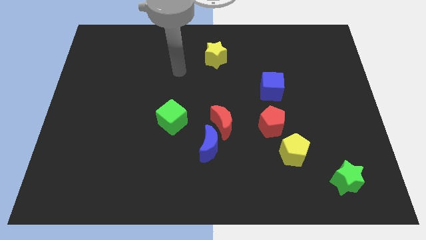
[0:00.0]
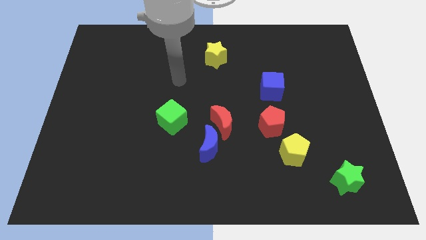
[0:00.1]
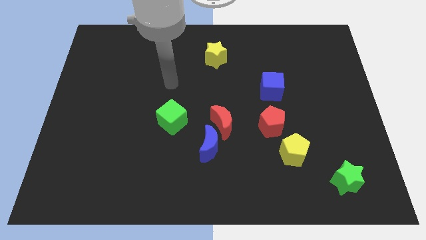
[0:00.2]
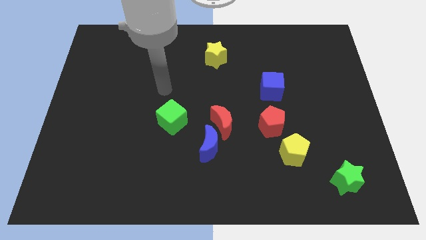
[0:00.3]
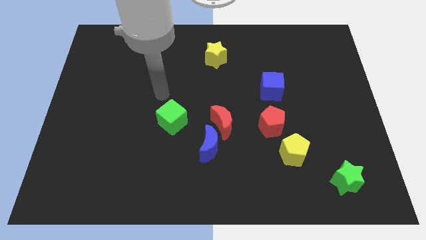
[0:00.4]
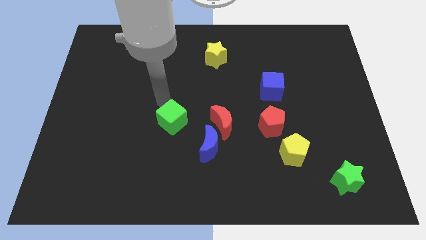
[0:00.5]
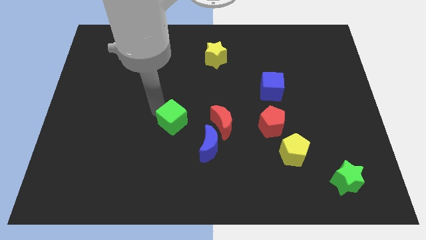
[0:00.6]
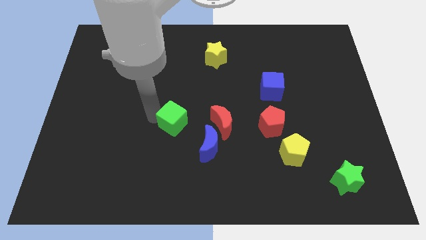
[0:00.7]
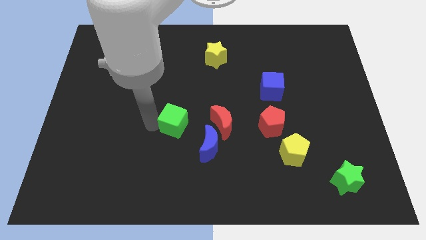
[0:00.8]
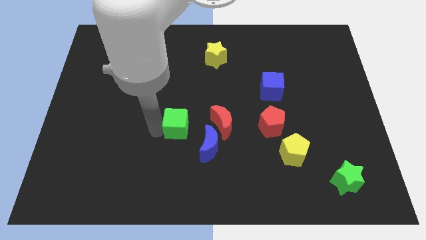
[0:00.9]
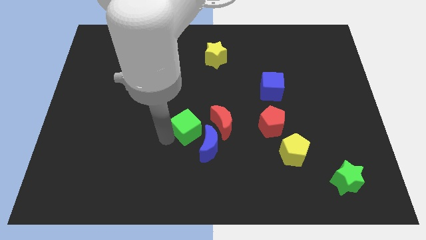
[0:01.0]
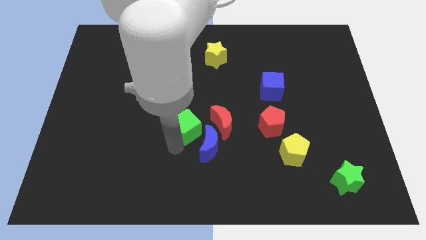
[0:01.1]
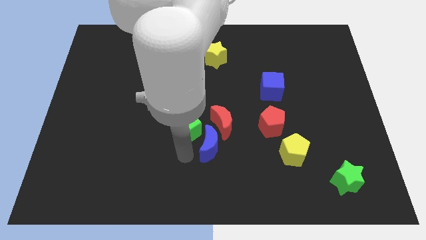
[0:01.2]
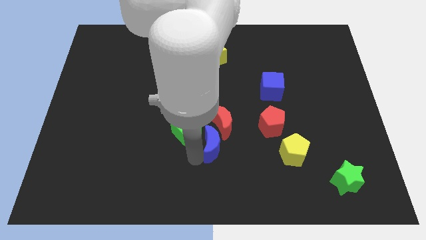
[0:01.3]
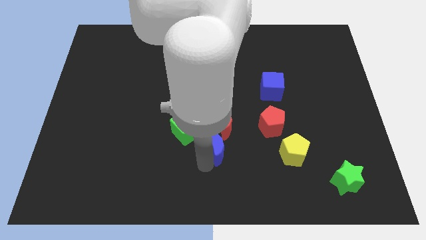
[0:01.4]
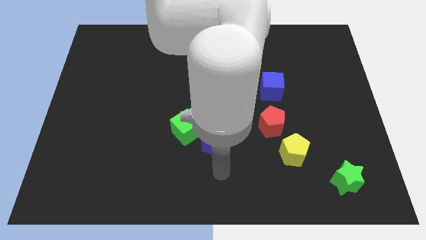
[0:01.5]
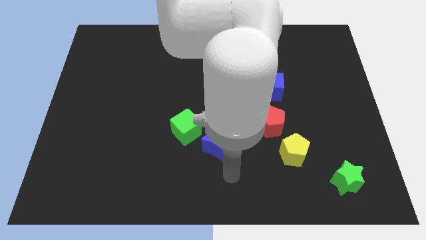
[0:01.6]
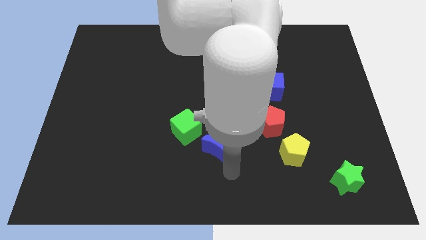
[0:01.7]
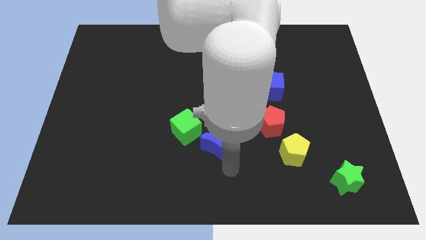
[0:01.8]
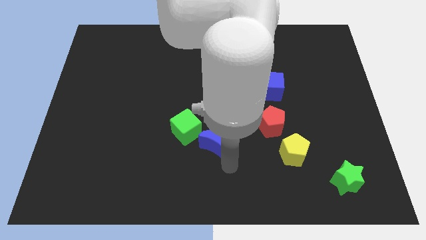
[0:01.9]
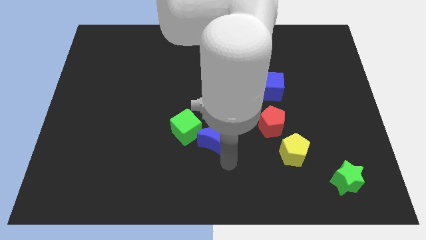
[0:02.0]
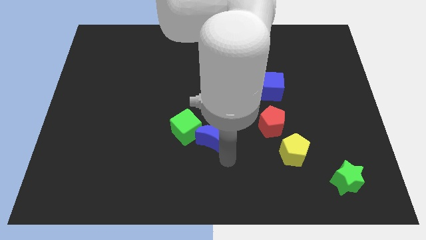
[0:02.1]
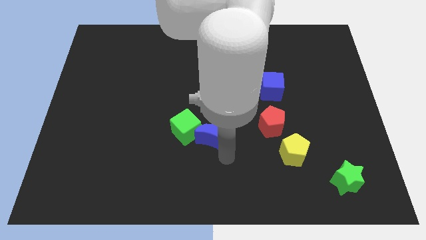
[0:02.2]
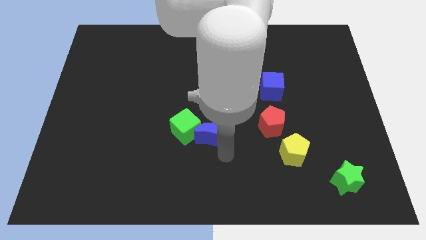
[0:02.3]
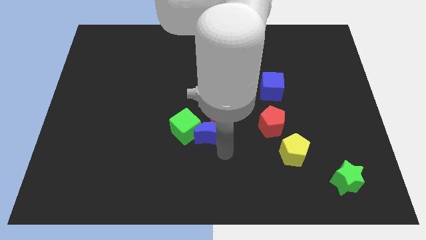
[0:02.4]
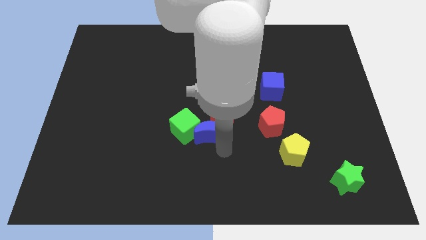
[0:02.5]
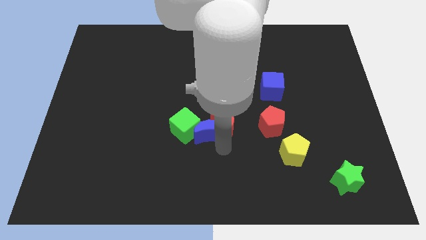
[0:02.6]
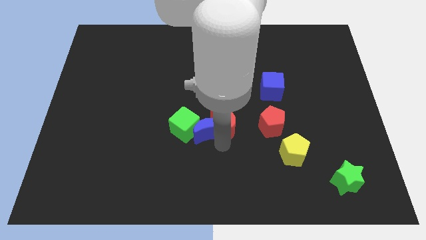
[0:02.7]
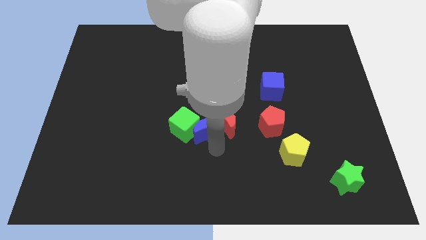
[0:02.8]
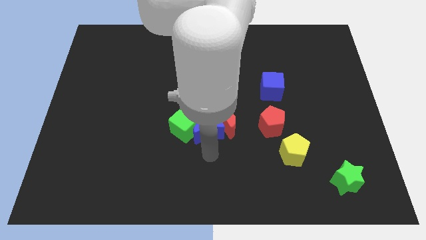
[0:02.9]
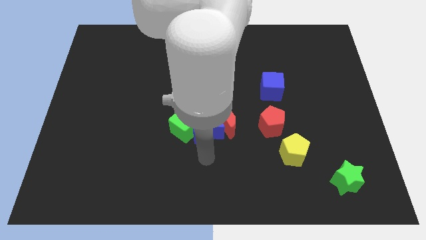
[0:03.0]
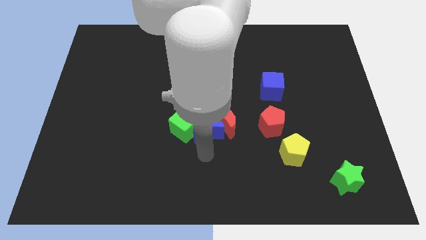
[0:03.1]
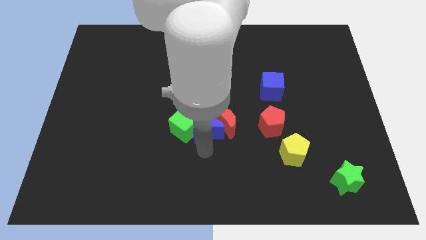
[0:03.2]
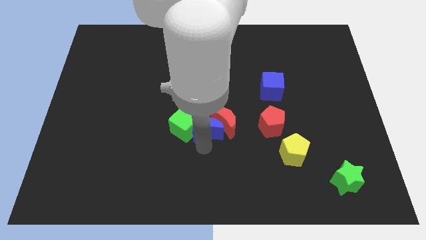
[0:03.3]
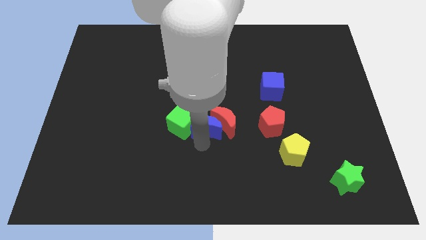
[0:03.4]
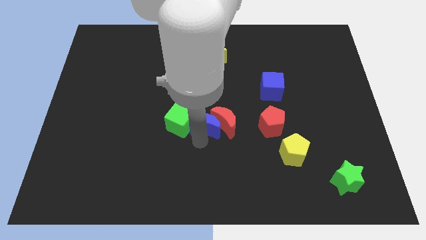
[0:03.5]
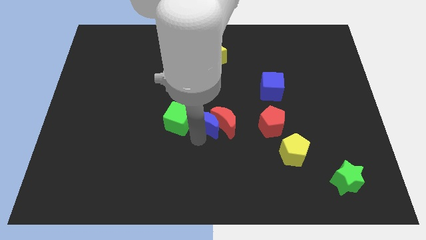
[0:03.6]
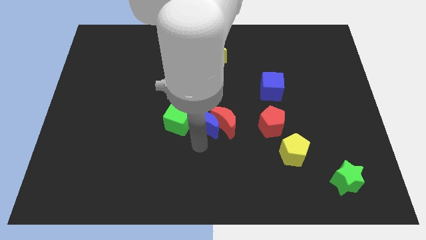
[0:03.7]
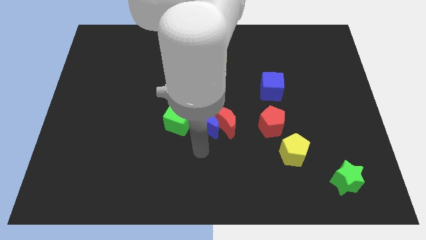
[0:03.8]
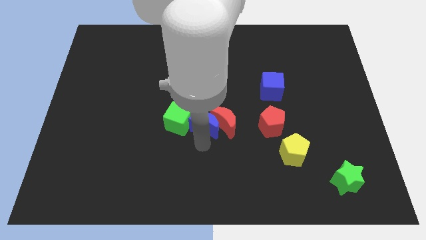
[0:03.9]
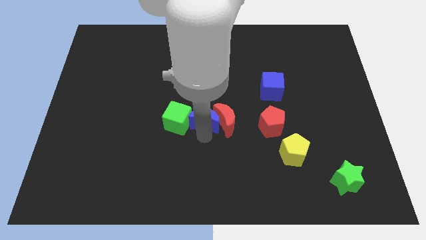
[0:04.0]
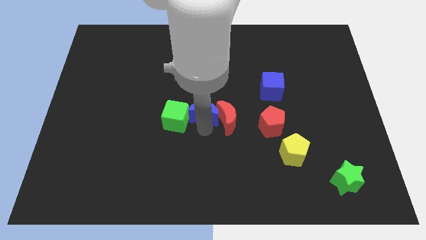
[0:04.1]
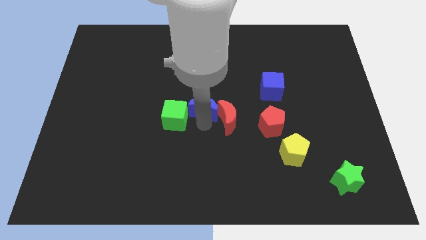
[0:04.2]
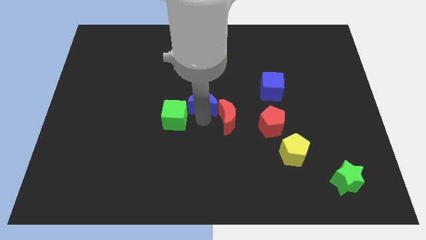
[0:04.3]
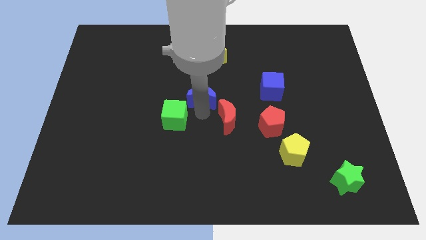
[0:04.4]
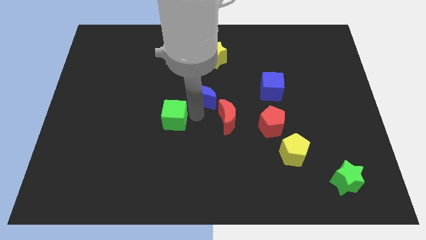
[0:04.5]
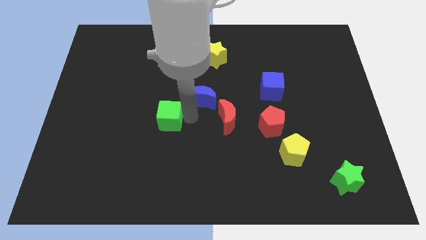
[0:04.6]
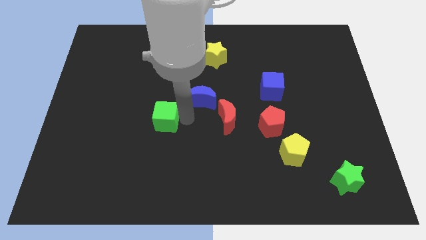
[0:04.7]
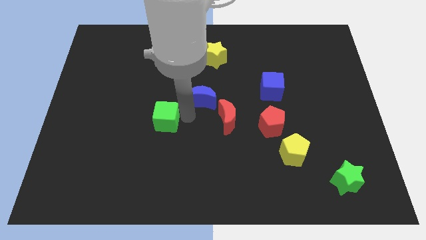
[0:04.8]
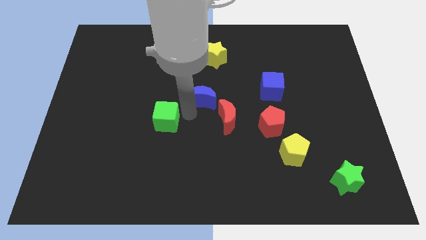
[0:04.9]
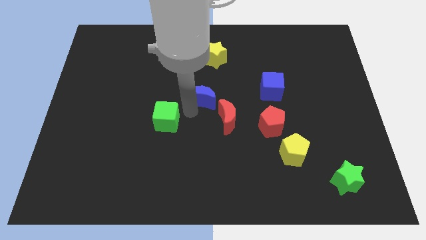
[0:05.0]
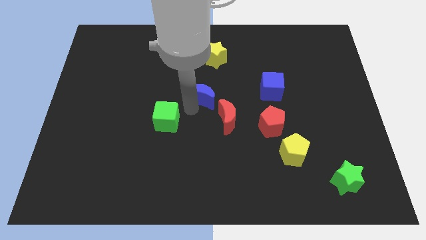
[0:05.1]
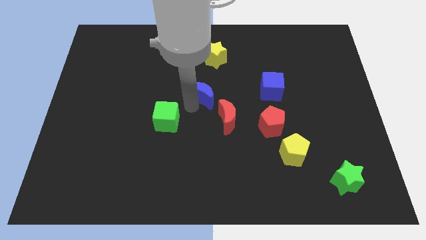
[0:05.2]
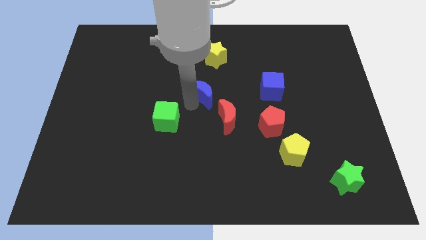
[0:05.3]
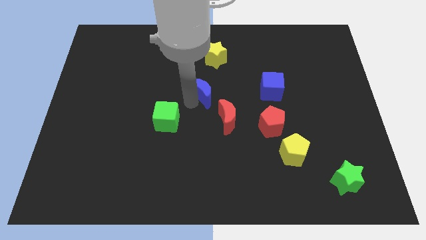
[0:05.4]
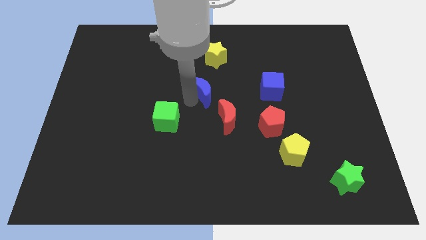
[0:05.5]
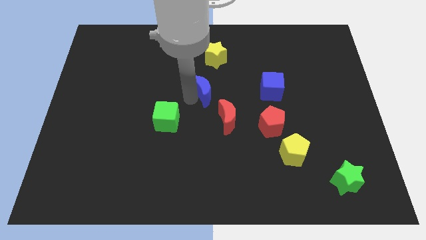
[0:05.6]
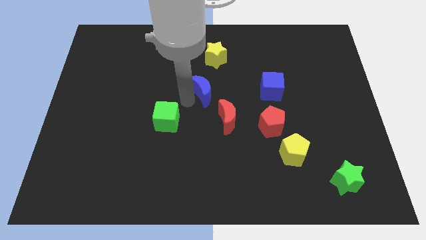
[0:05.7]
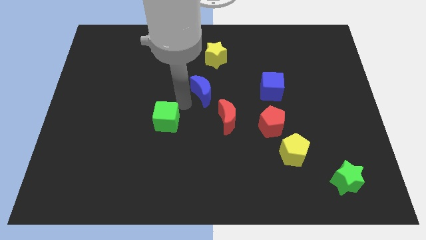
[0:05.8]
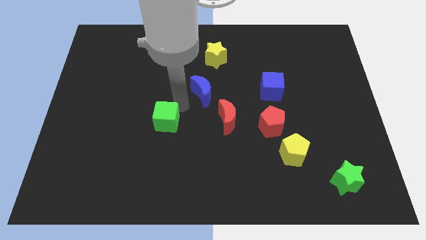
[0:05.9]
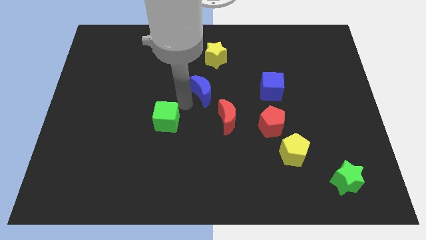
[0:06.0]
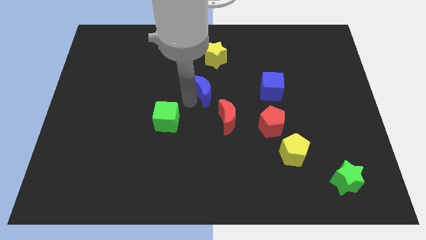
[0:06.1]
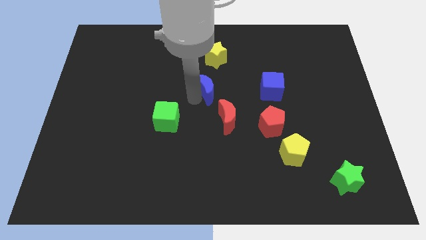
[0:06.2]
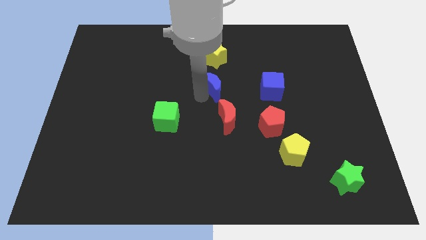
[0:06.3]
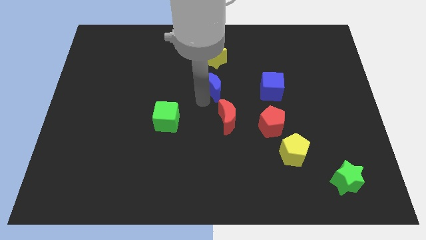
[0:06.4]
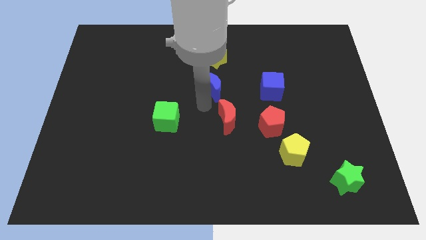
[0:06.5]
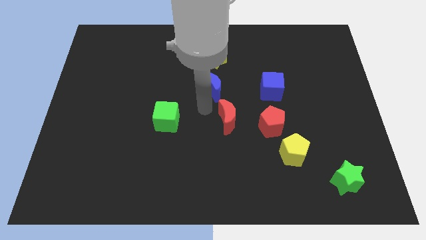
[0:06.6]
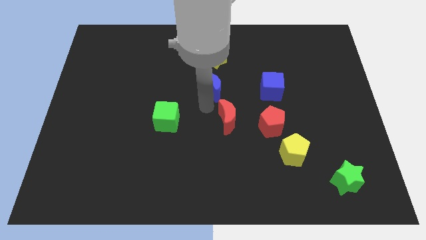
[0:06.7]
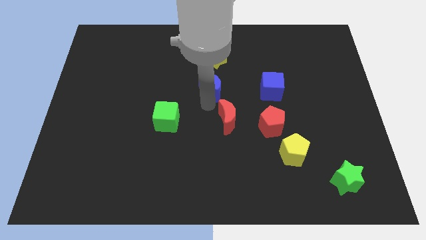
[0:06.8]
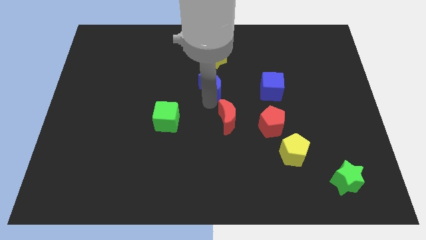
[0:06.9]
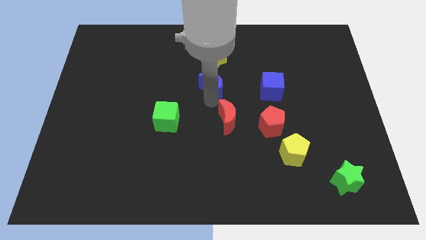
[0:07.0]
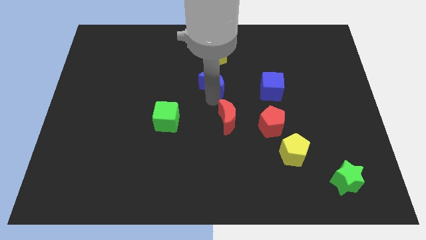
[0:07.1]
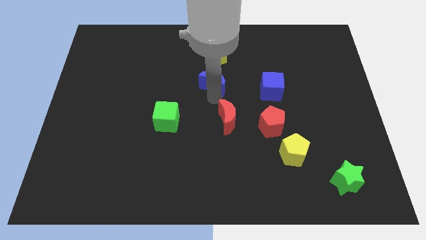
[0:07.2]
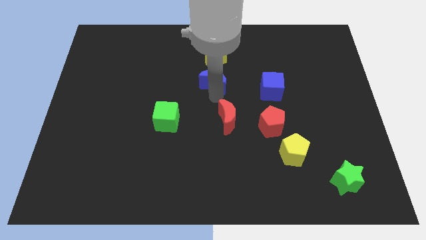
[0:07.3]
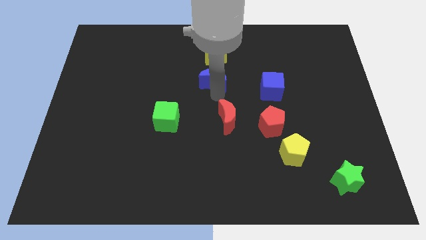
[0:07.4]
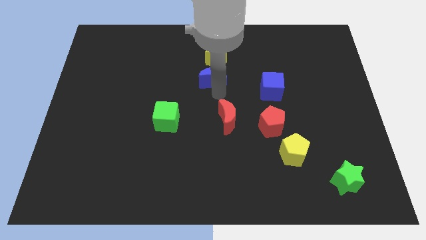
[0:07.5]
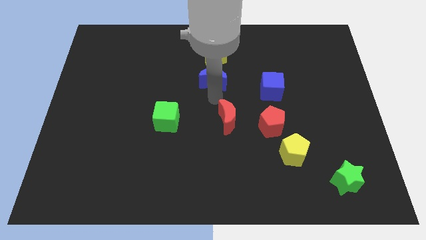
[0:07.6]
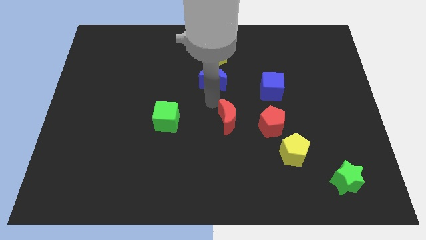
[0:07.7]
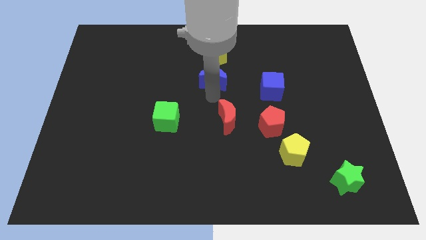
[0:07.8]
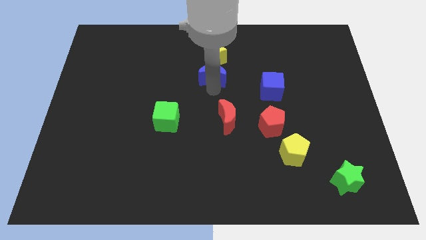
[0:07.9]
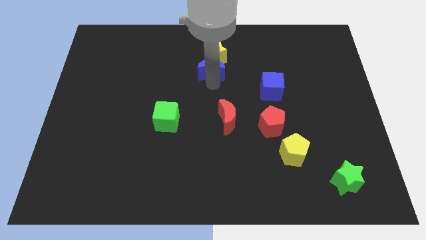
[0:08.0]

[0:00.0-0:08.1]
put the blue moon to the yellow star
